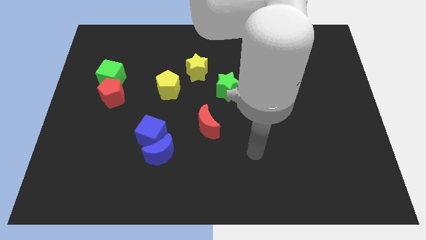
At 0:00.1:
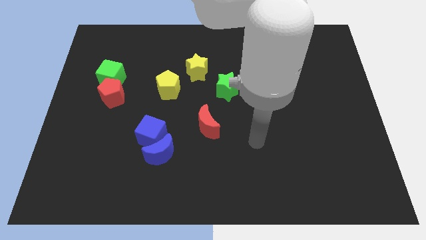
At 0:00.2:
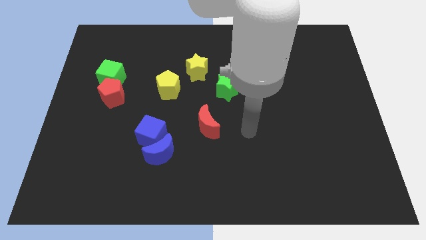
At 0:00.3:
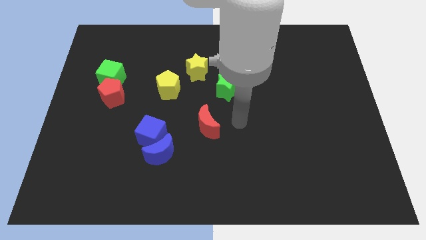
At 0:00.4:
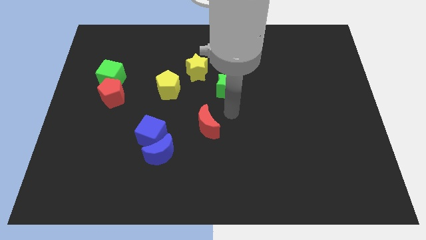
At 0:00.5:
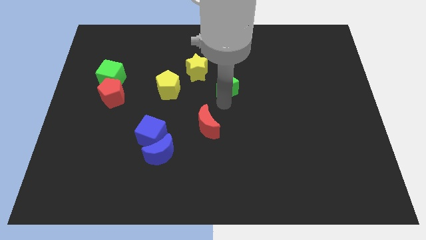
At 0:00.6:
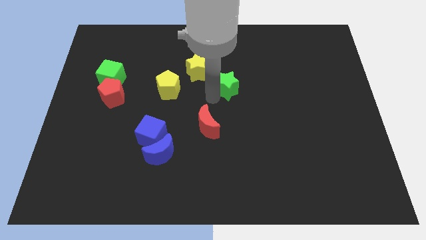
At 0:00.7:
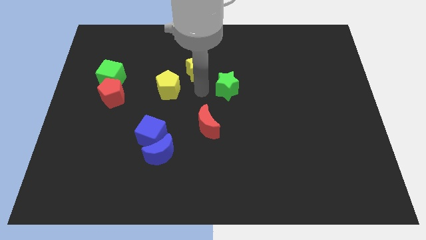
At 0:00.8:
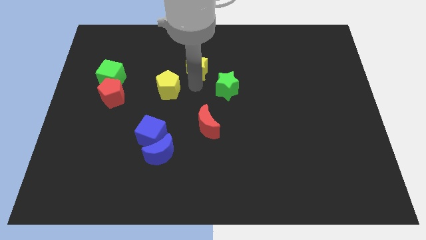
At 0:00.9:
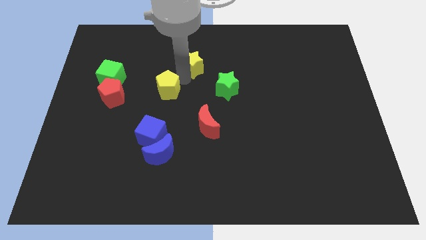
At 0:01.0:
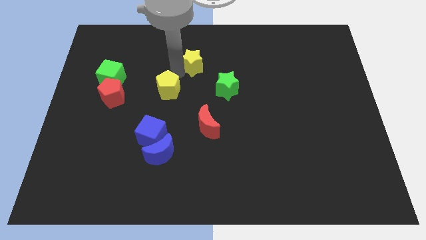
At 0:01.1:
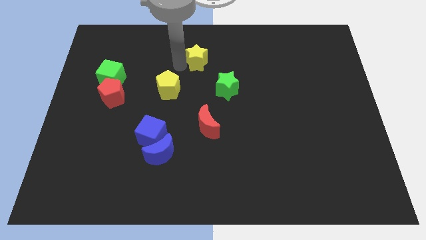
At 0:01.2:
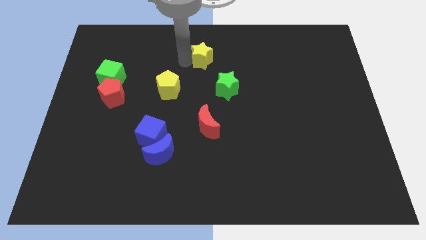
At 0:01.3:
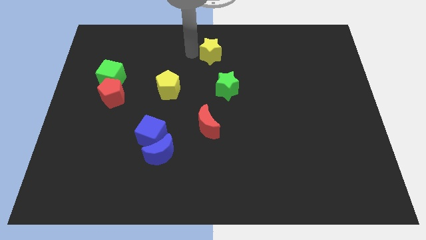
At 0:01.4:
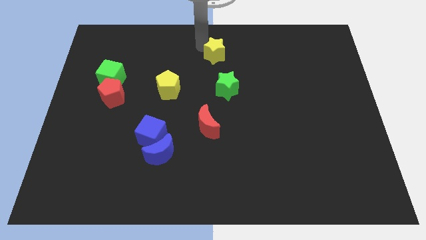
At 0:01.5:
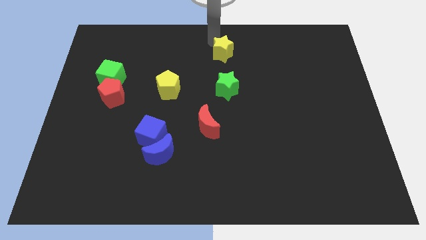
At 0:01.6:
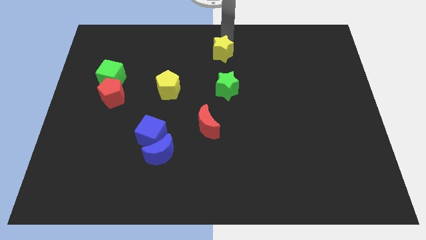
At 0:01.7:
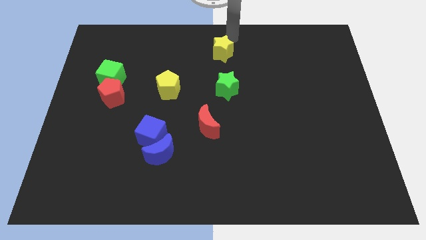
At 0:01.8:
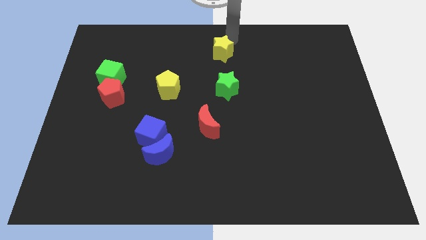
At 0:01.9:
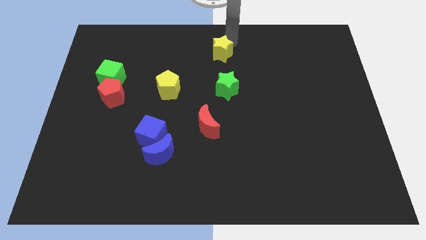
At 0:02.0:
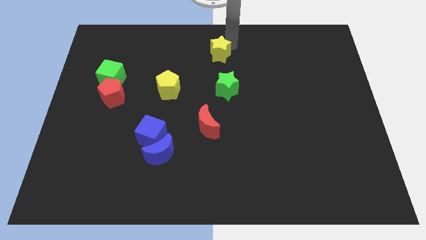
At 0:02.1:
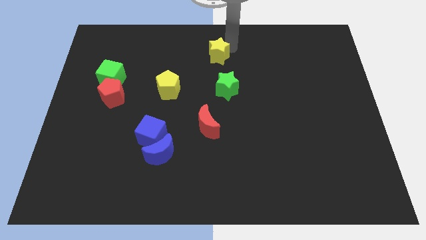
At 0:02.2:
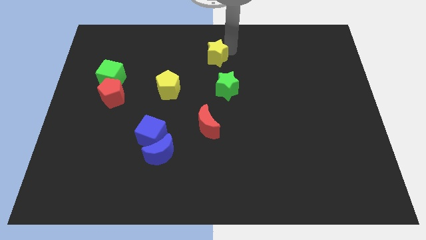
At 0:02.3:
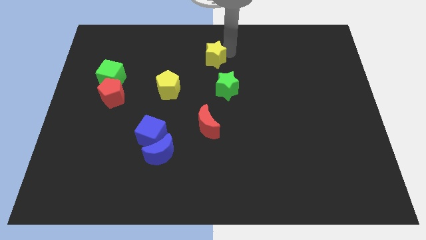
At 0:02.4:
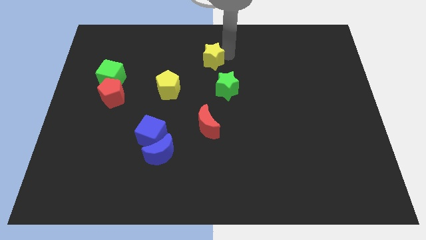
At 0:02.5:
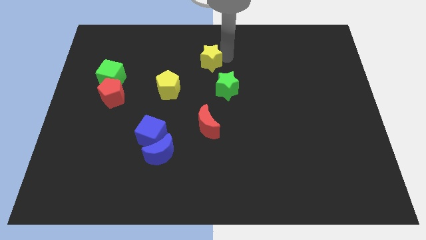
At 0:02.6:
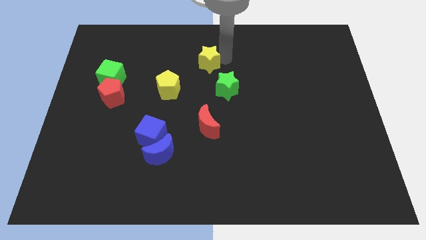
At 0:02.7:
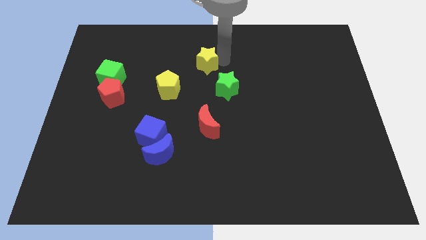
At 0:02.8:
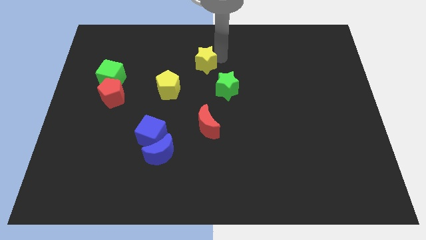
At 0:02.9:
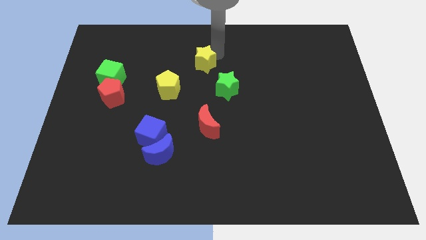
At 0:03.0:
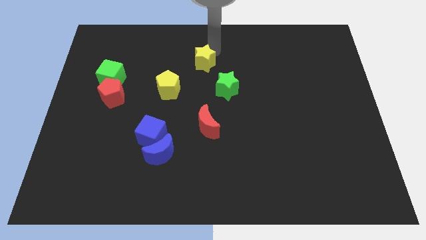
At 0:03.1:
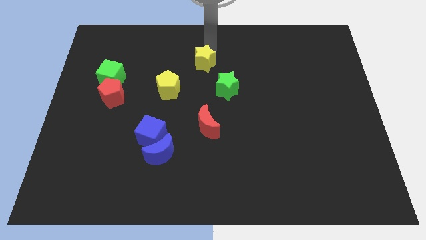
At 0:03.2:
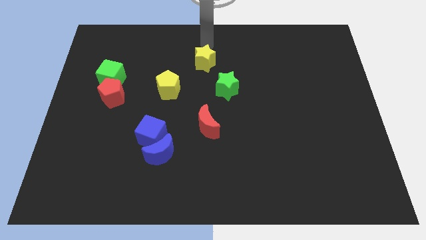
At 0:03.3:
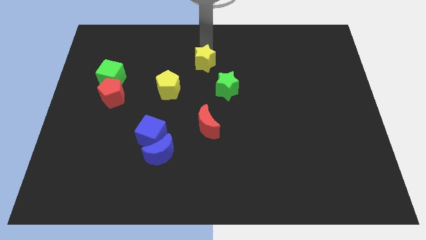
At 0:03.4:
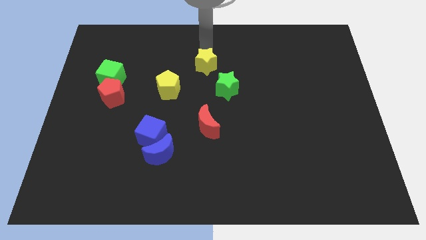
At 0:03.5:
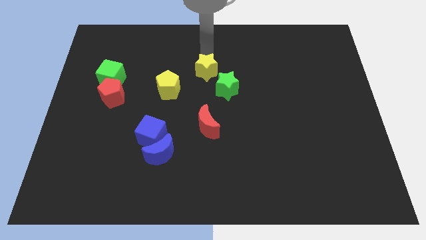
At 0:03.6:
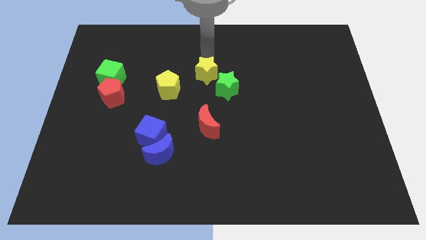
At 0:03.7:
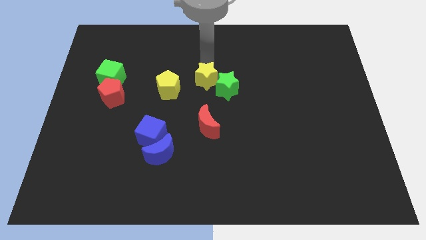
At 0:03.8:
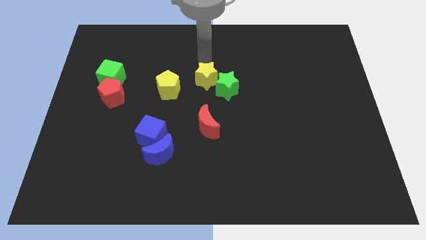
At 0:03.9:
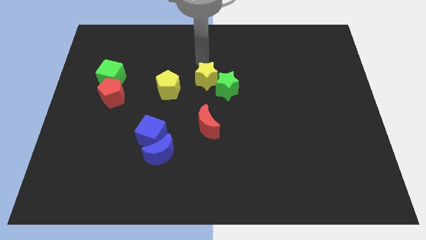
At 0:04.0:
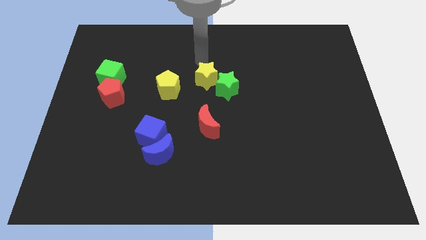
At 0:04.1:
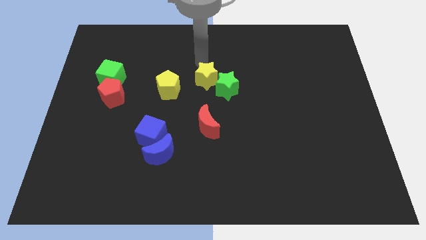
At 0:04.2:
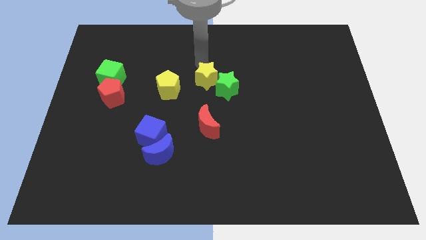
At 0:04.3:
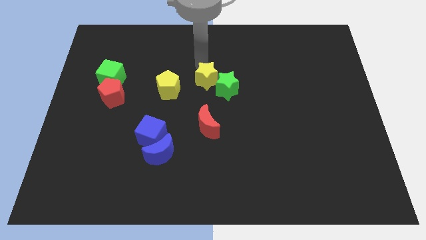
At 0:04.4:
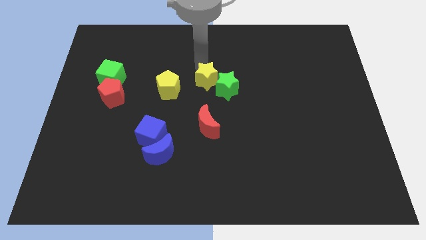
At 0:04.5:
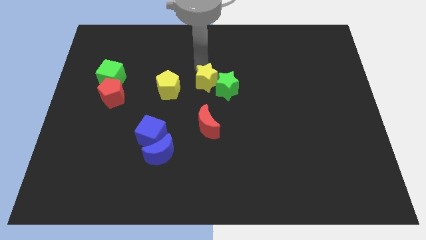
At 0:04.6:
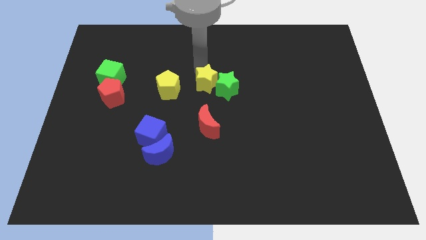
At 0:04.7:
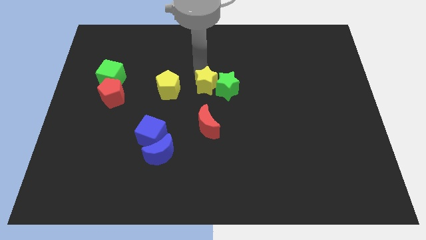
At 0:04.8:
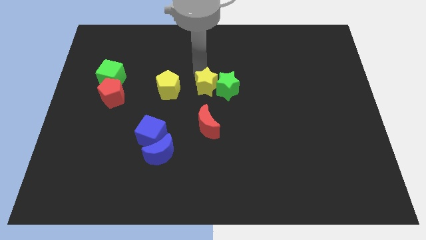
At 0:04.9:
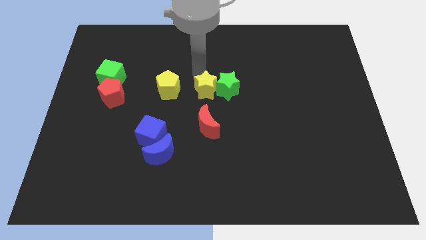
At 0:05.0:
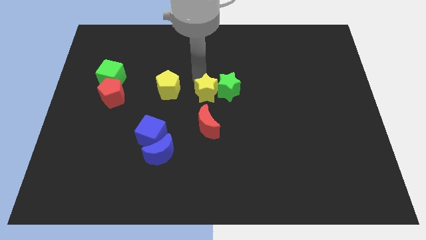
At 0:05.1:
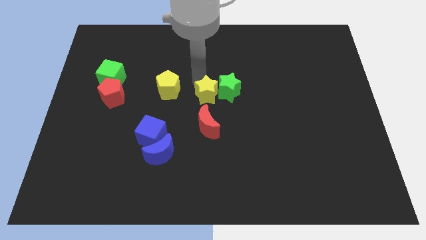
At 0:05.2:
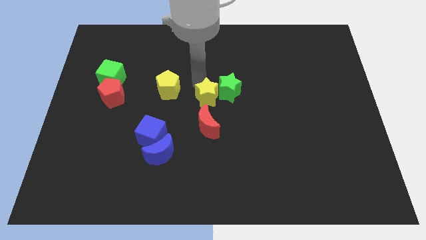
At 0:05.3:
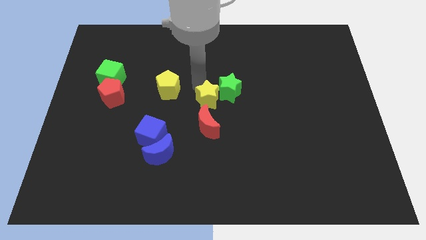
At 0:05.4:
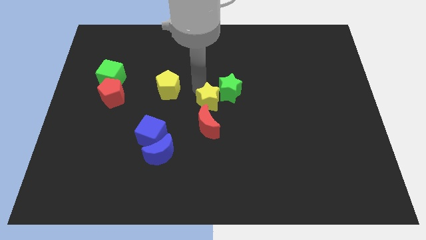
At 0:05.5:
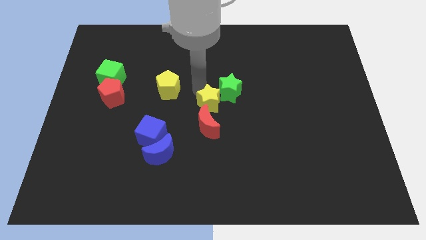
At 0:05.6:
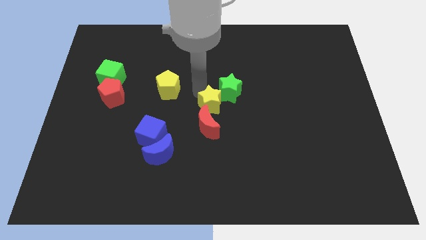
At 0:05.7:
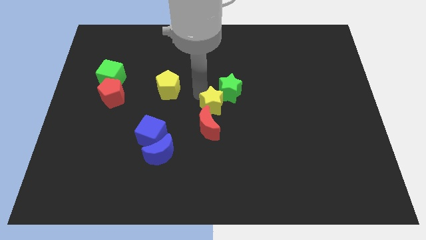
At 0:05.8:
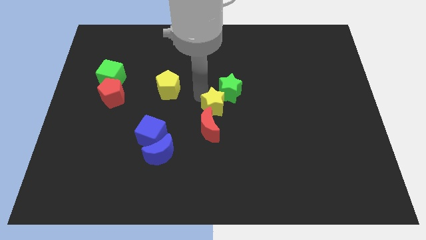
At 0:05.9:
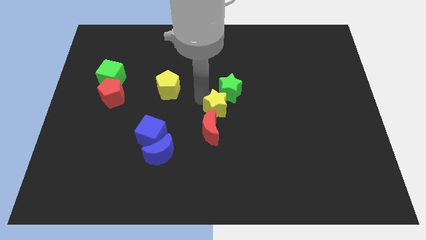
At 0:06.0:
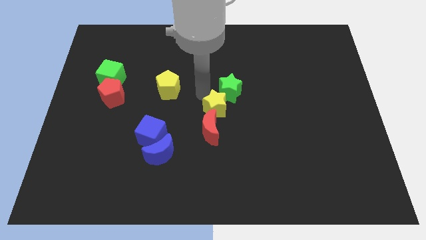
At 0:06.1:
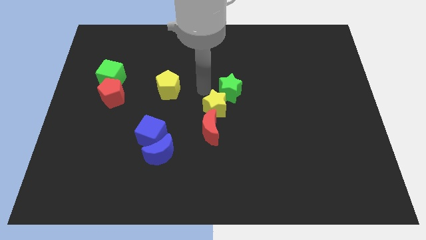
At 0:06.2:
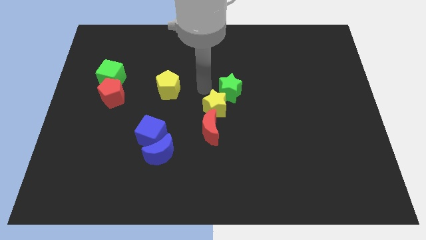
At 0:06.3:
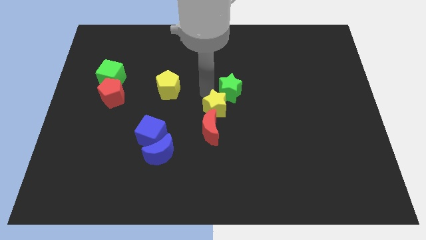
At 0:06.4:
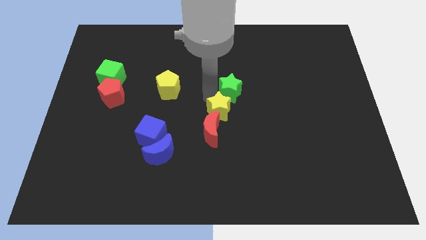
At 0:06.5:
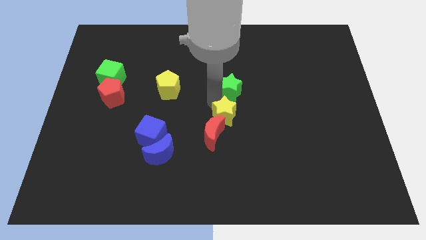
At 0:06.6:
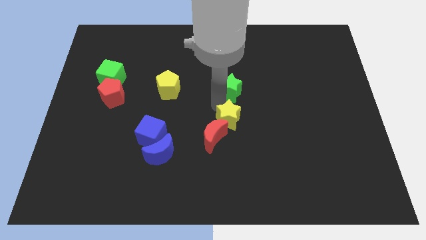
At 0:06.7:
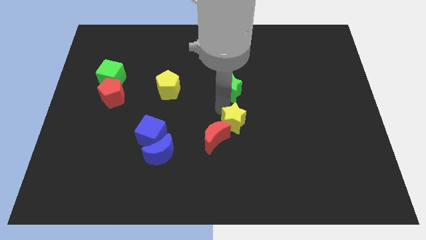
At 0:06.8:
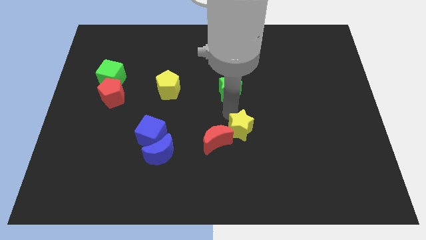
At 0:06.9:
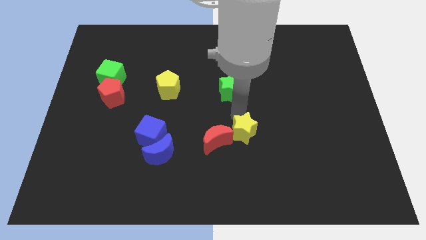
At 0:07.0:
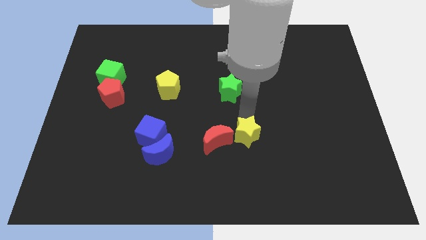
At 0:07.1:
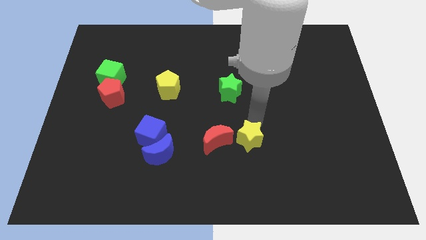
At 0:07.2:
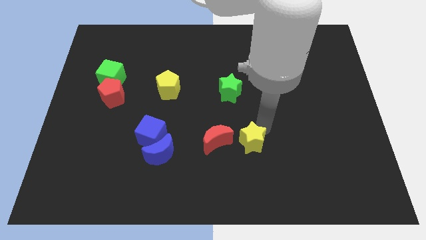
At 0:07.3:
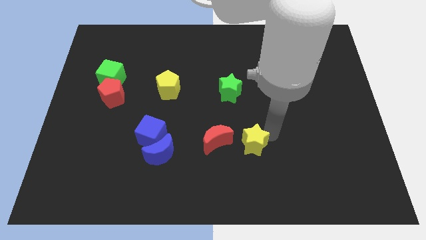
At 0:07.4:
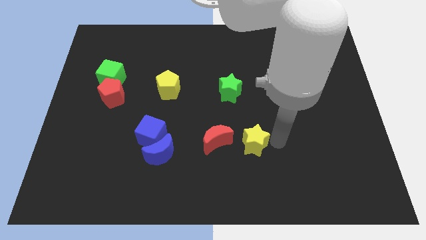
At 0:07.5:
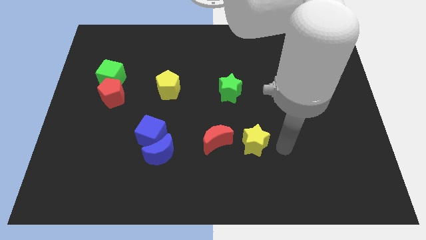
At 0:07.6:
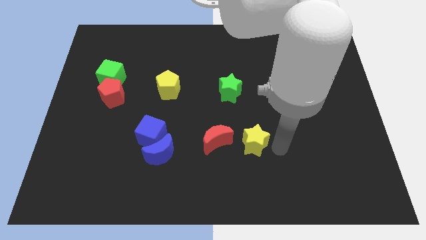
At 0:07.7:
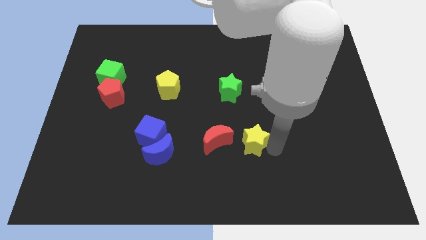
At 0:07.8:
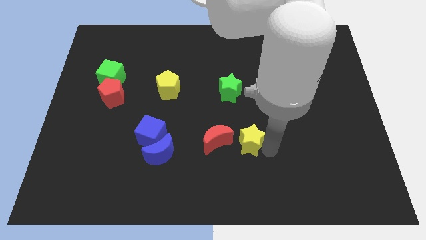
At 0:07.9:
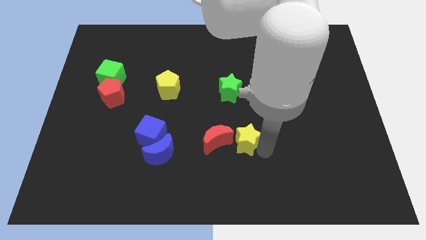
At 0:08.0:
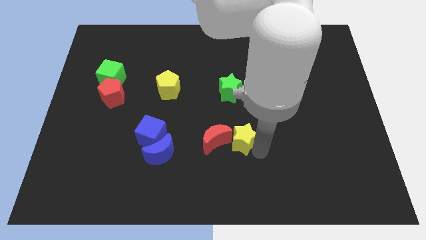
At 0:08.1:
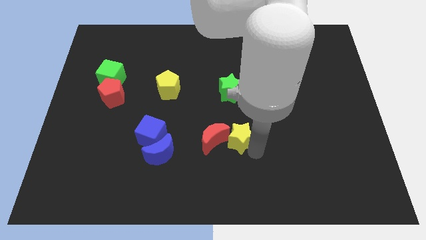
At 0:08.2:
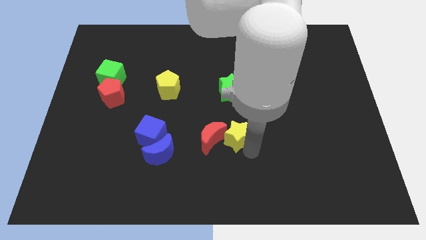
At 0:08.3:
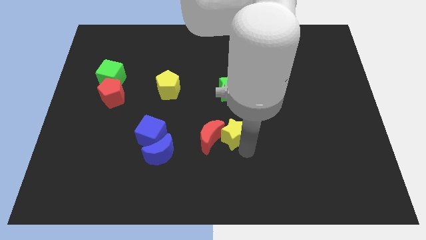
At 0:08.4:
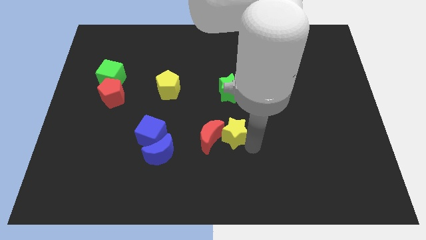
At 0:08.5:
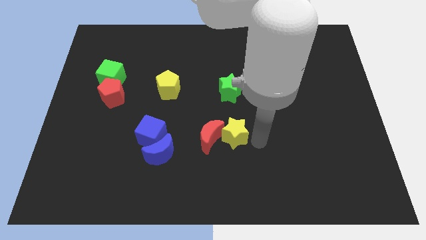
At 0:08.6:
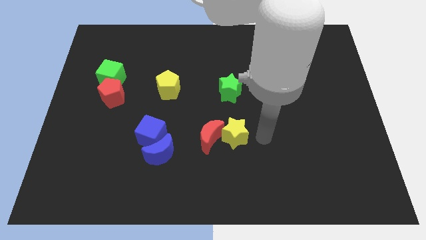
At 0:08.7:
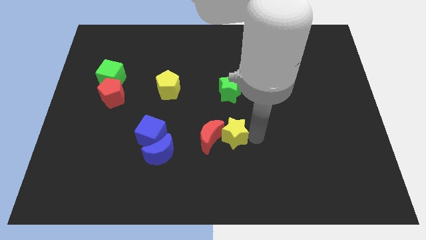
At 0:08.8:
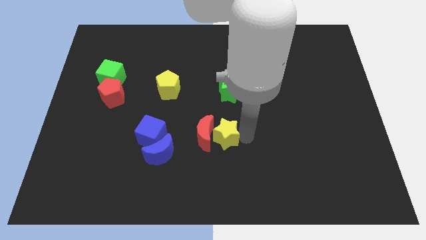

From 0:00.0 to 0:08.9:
move the yellow star to the right of the blue cube
